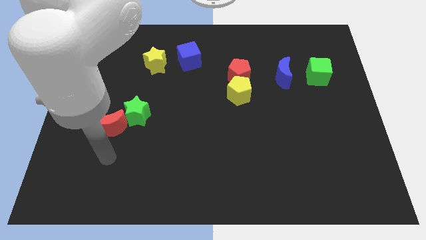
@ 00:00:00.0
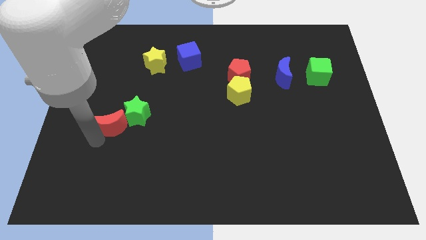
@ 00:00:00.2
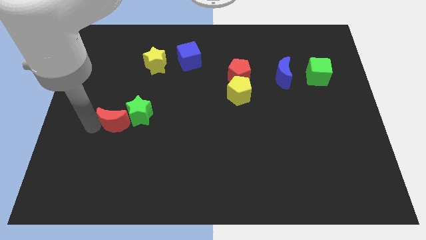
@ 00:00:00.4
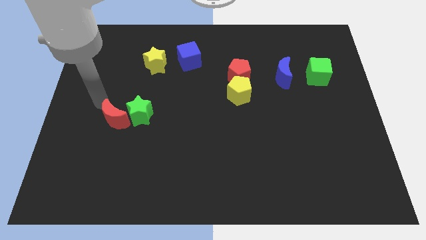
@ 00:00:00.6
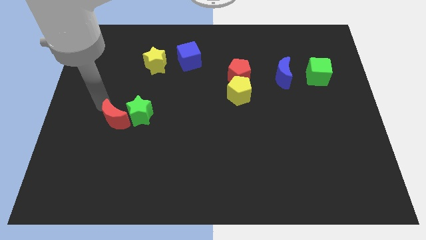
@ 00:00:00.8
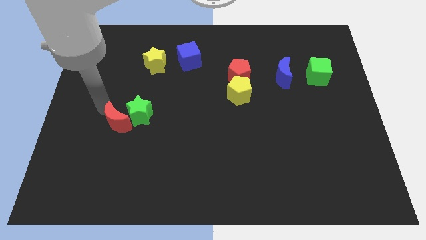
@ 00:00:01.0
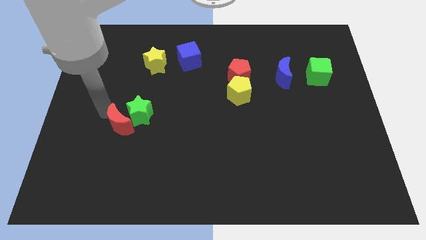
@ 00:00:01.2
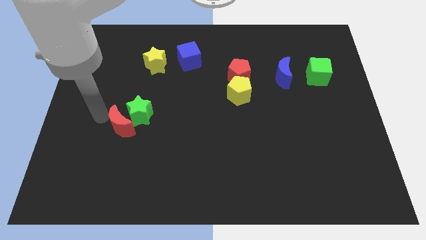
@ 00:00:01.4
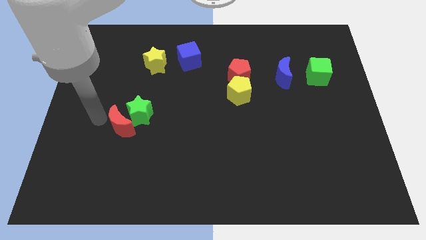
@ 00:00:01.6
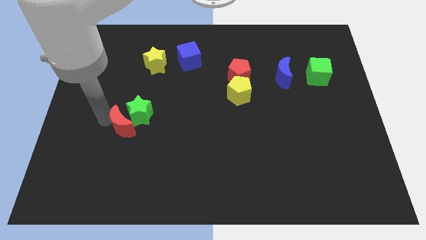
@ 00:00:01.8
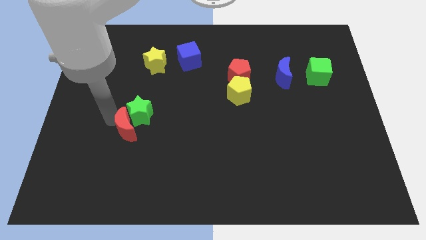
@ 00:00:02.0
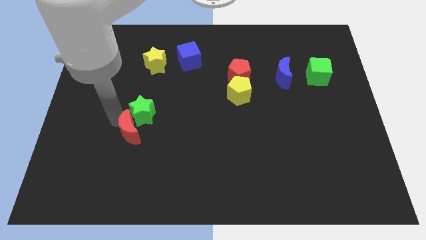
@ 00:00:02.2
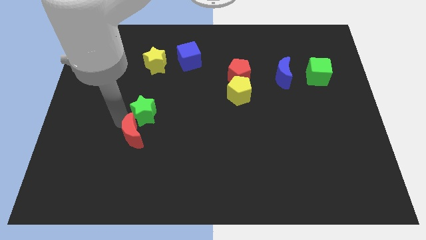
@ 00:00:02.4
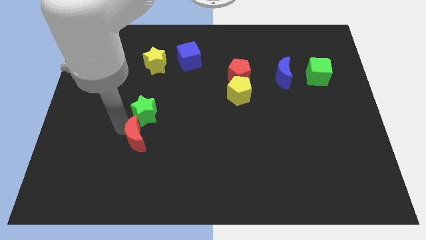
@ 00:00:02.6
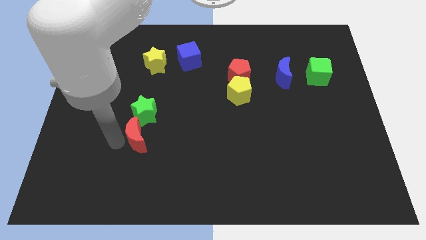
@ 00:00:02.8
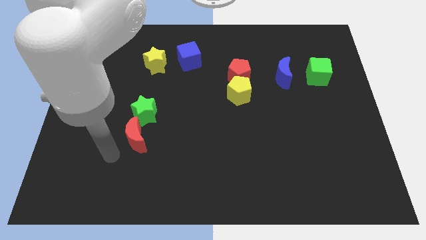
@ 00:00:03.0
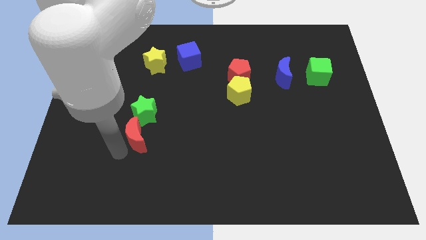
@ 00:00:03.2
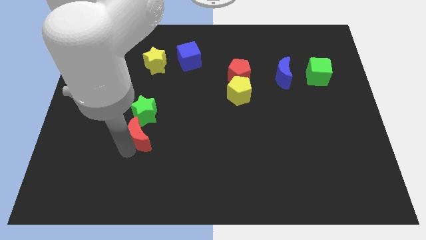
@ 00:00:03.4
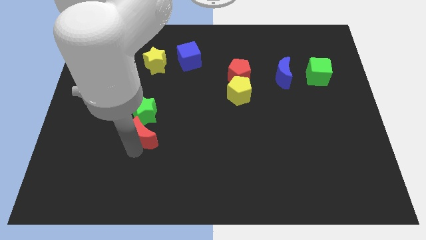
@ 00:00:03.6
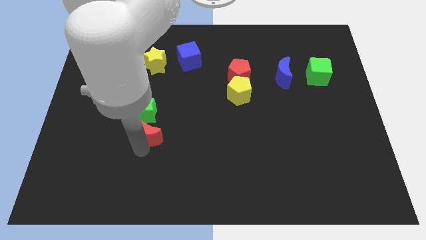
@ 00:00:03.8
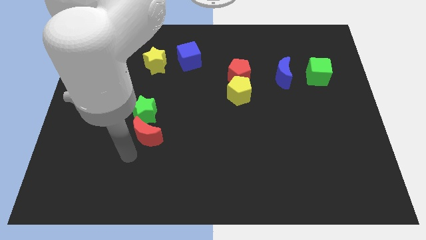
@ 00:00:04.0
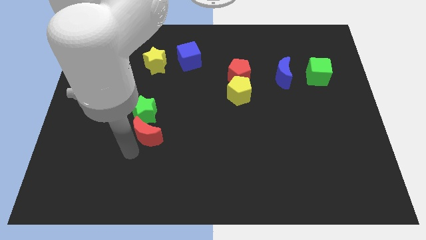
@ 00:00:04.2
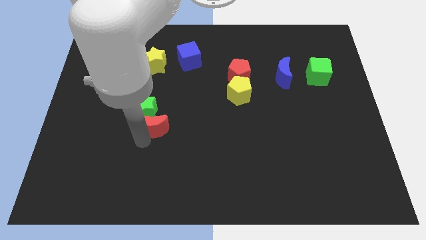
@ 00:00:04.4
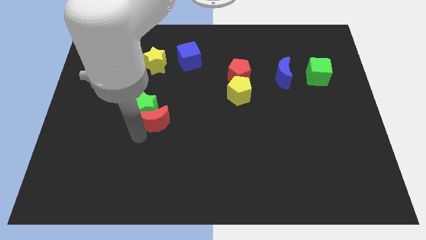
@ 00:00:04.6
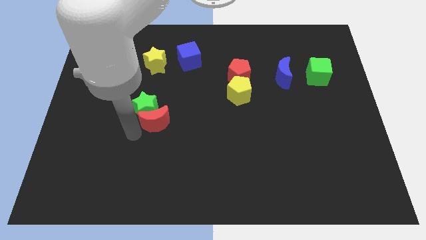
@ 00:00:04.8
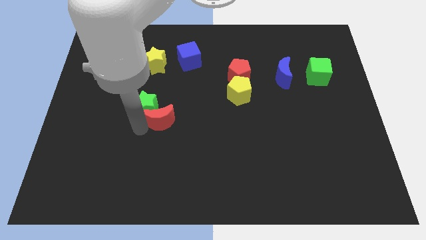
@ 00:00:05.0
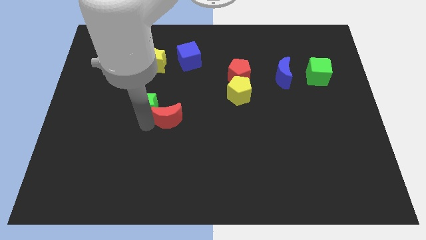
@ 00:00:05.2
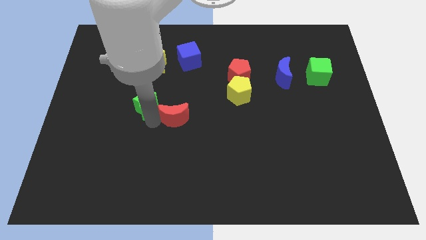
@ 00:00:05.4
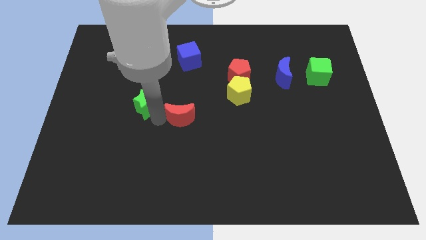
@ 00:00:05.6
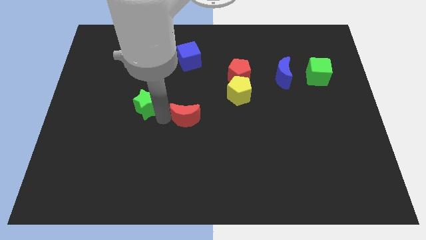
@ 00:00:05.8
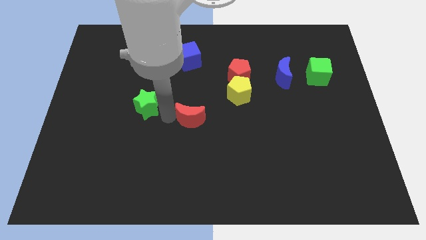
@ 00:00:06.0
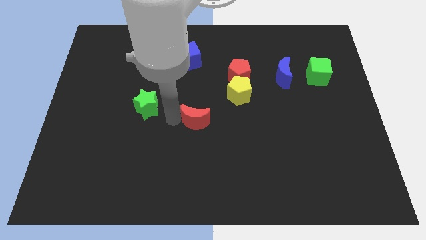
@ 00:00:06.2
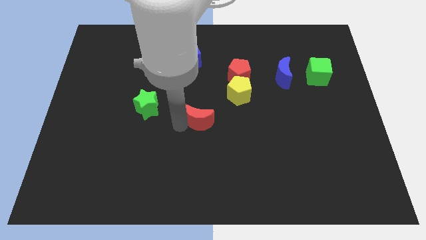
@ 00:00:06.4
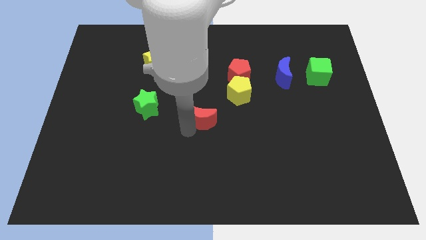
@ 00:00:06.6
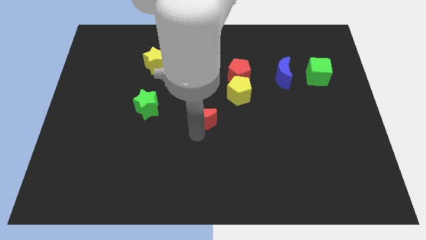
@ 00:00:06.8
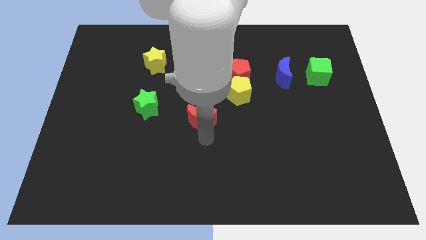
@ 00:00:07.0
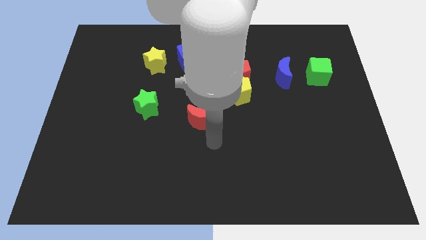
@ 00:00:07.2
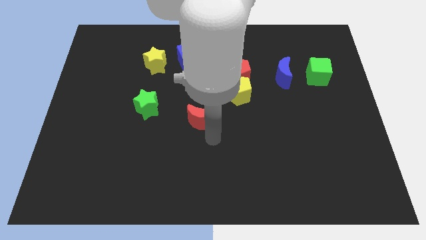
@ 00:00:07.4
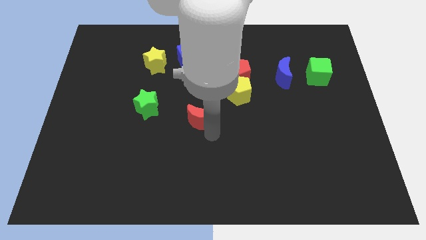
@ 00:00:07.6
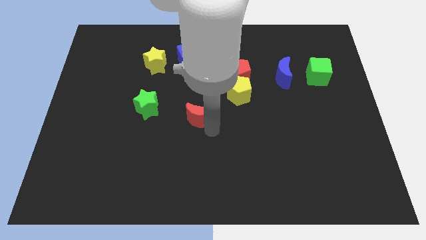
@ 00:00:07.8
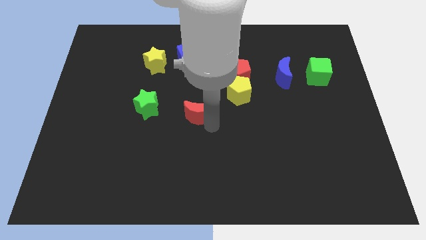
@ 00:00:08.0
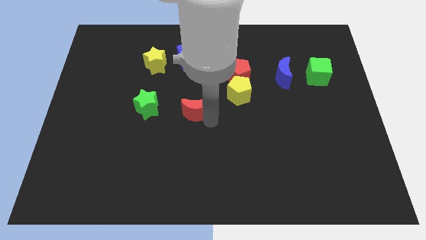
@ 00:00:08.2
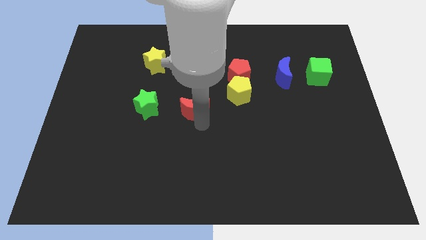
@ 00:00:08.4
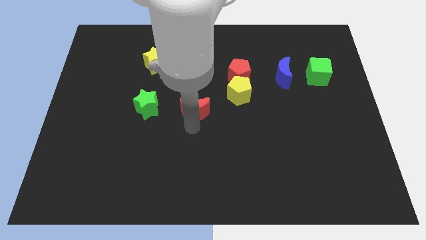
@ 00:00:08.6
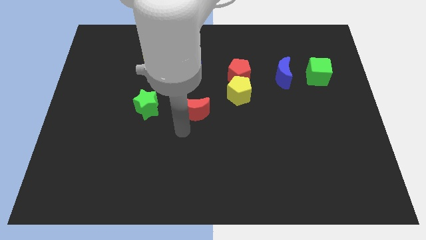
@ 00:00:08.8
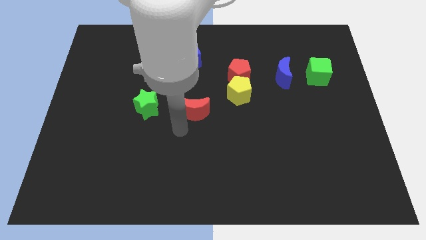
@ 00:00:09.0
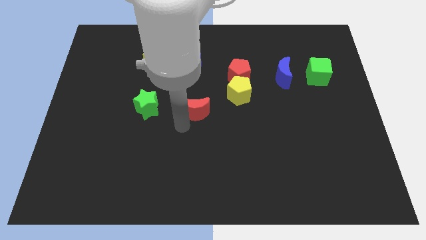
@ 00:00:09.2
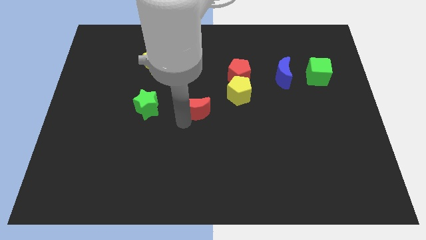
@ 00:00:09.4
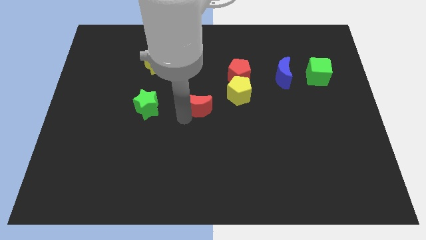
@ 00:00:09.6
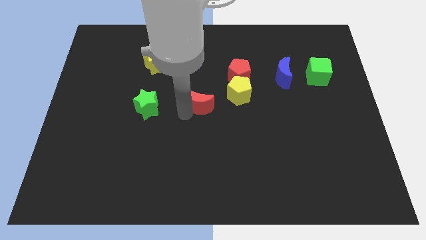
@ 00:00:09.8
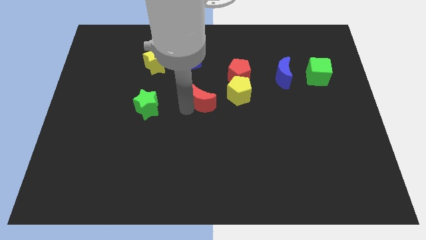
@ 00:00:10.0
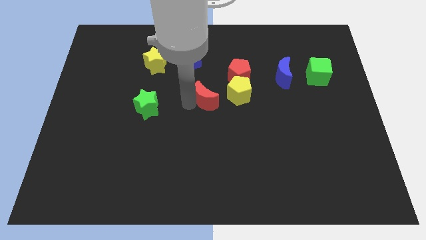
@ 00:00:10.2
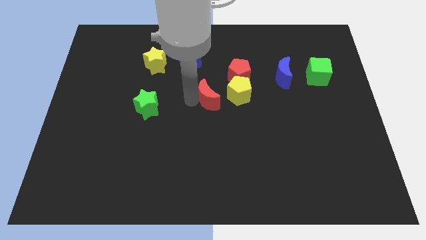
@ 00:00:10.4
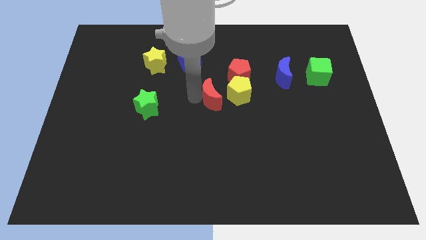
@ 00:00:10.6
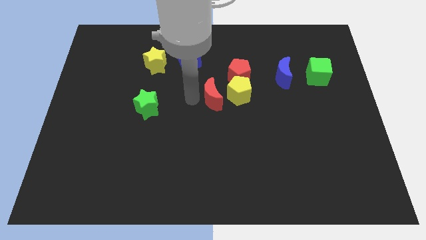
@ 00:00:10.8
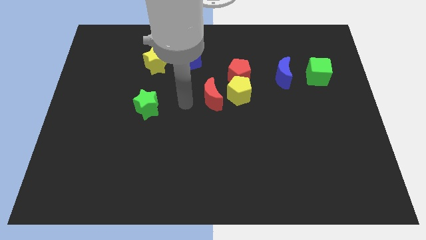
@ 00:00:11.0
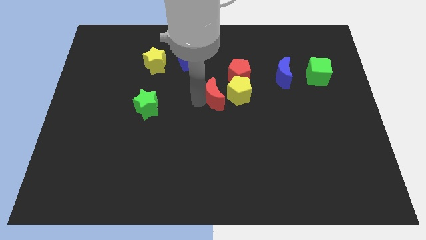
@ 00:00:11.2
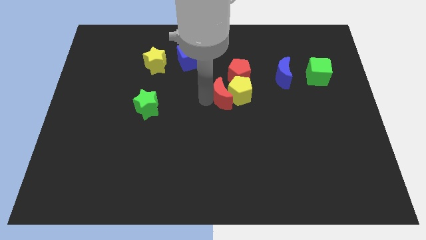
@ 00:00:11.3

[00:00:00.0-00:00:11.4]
push the red moon close to the yellow pentagon

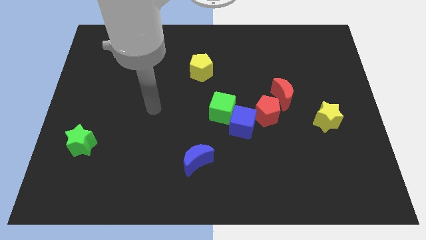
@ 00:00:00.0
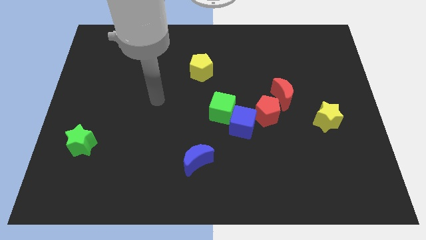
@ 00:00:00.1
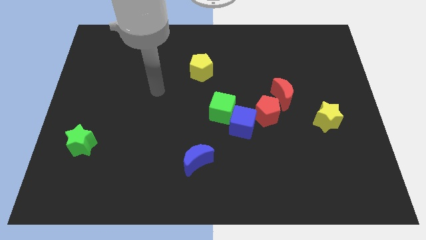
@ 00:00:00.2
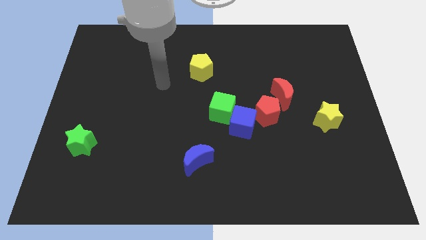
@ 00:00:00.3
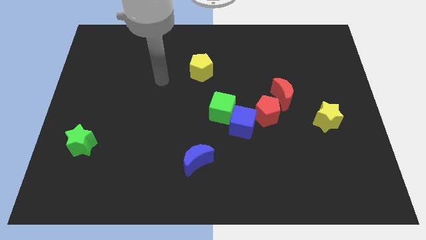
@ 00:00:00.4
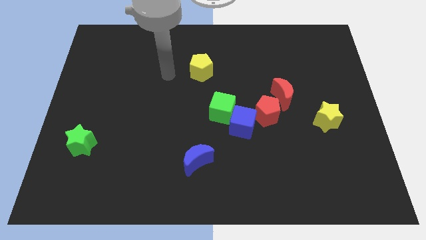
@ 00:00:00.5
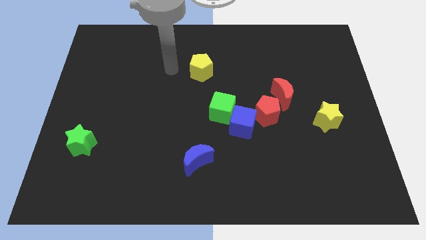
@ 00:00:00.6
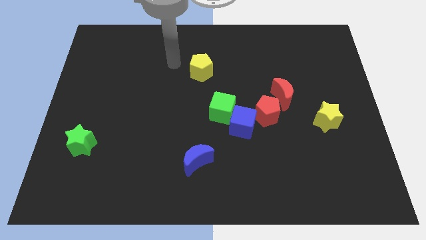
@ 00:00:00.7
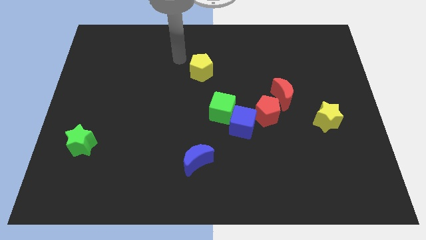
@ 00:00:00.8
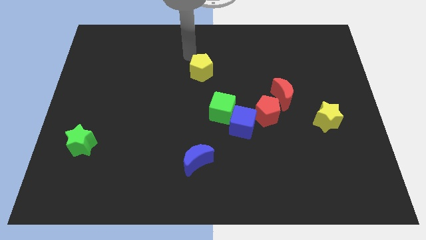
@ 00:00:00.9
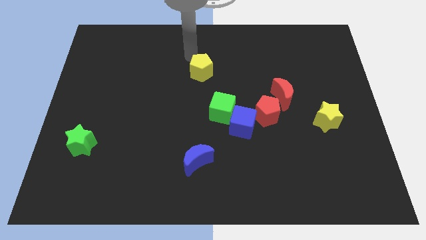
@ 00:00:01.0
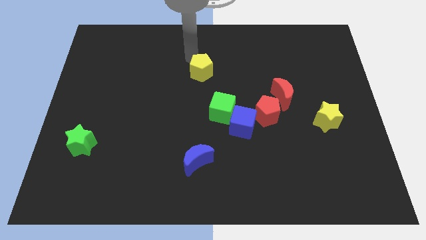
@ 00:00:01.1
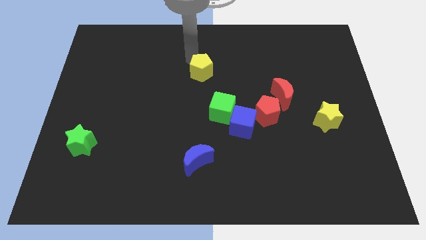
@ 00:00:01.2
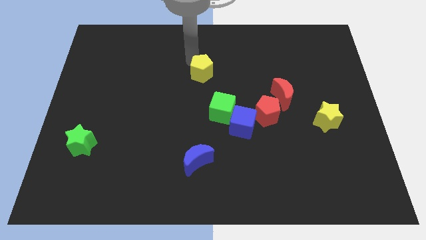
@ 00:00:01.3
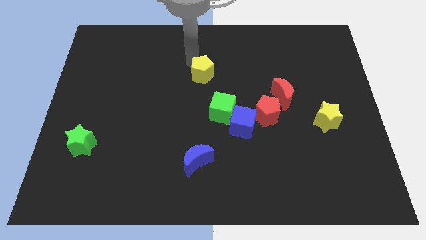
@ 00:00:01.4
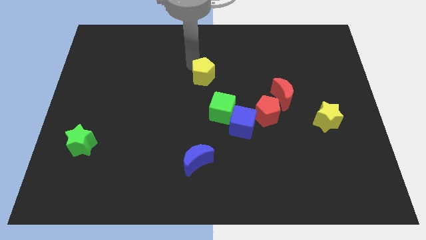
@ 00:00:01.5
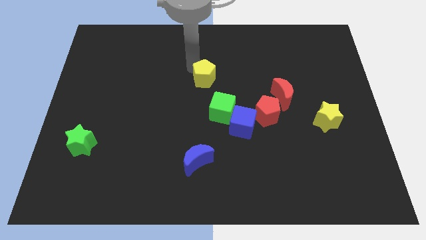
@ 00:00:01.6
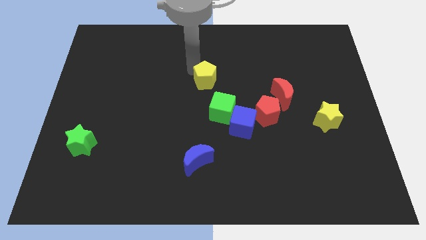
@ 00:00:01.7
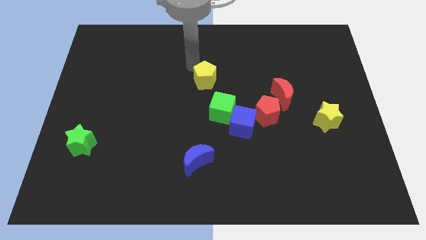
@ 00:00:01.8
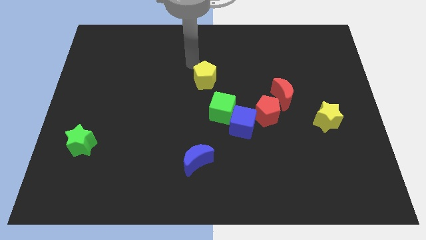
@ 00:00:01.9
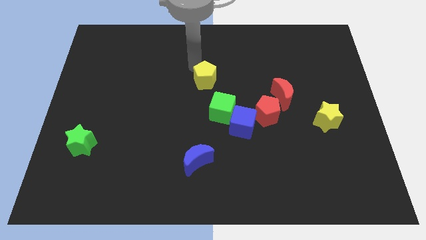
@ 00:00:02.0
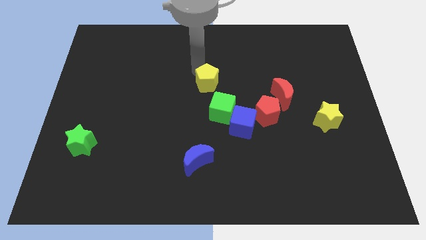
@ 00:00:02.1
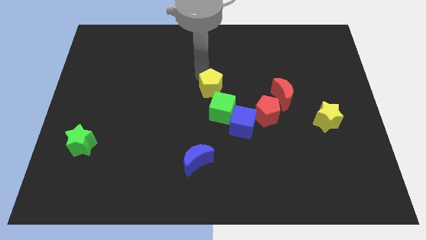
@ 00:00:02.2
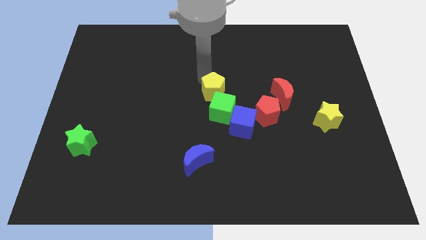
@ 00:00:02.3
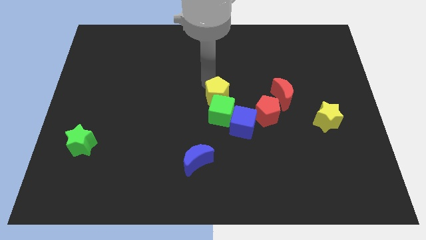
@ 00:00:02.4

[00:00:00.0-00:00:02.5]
put the yellow pentagon next to the green cube
